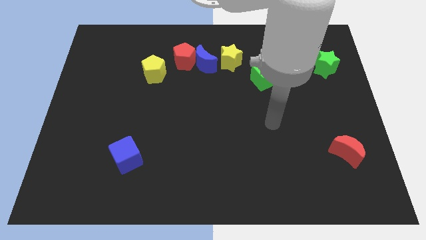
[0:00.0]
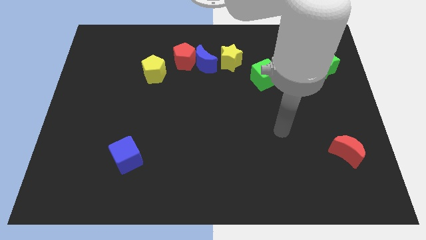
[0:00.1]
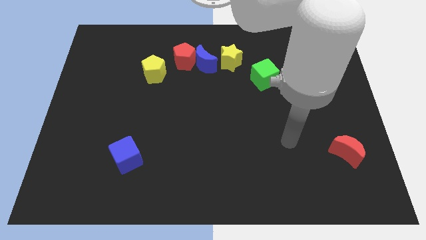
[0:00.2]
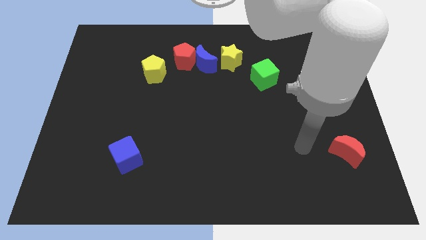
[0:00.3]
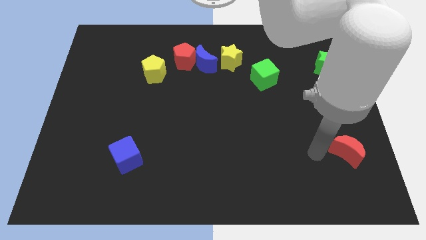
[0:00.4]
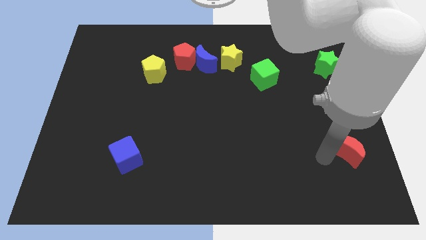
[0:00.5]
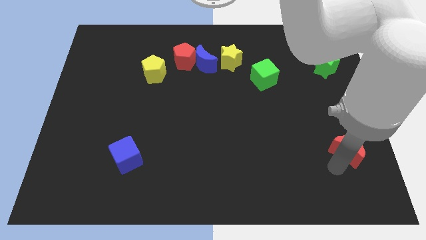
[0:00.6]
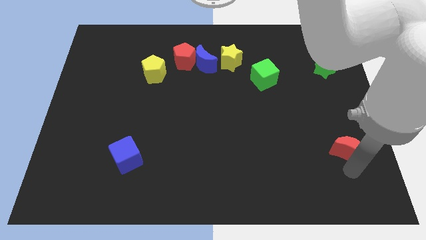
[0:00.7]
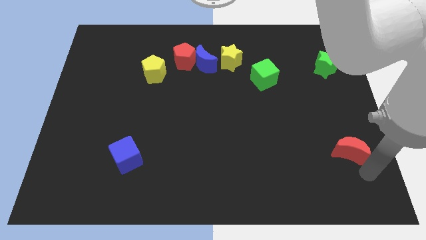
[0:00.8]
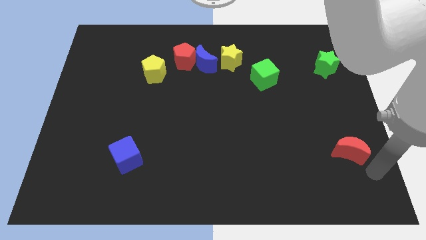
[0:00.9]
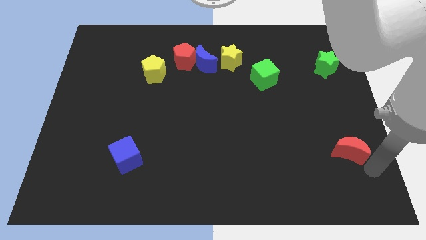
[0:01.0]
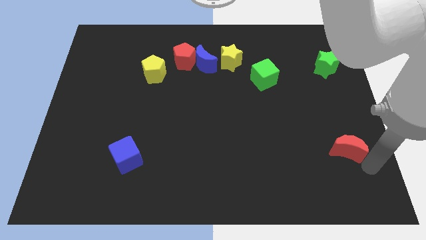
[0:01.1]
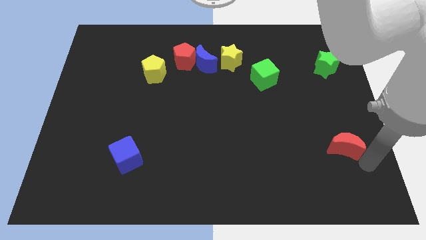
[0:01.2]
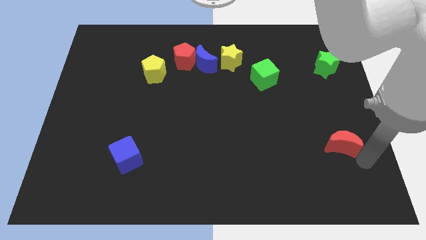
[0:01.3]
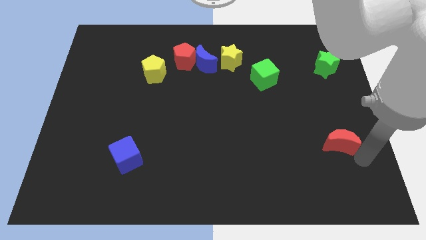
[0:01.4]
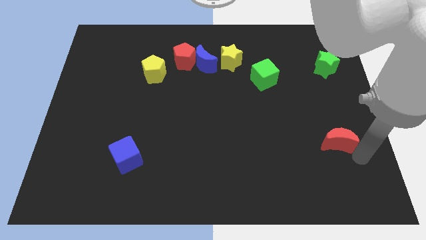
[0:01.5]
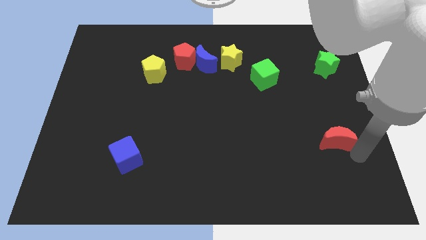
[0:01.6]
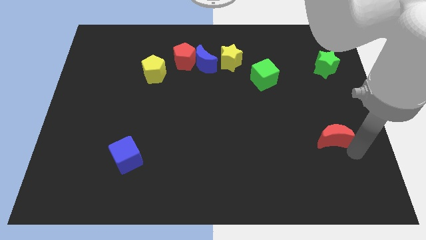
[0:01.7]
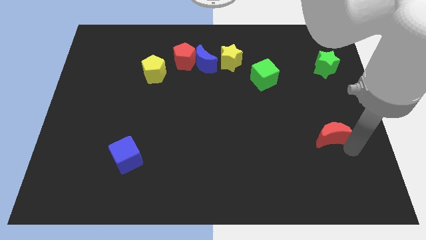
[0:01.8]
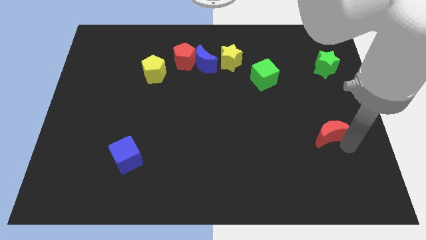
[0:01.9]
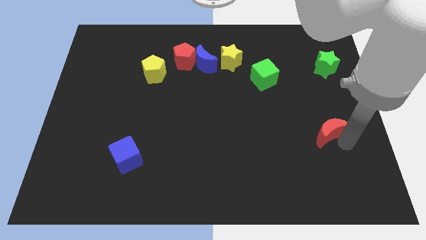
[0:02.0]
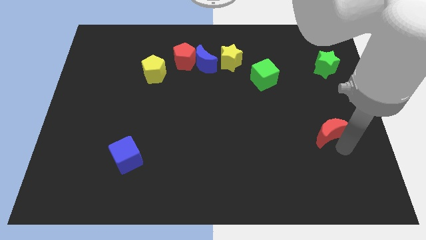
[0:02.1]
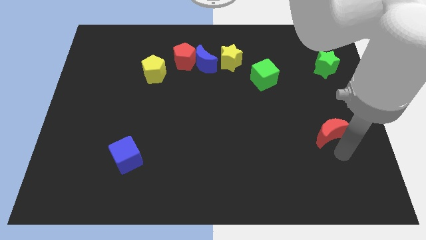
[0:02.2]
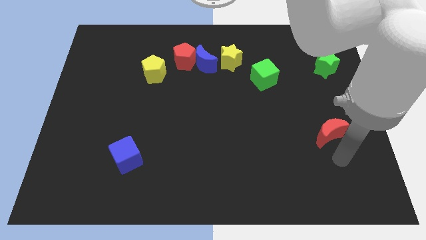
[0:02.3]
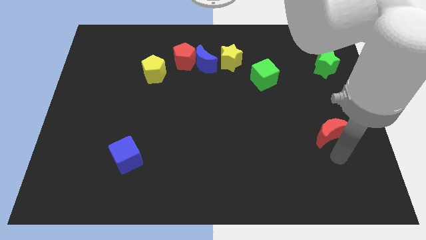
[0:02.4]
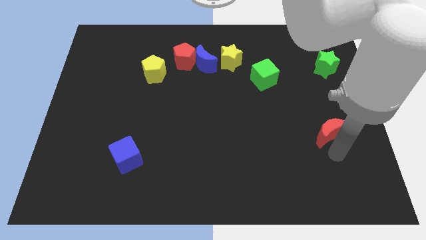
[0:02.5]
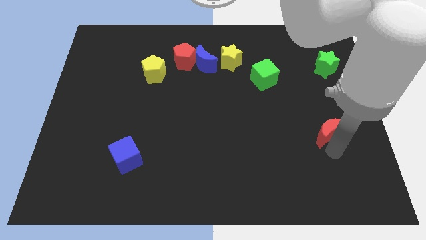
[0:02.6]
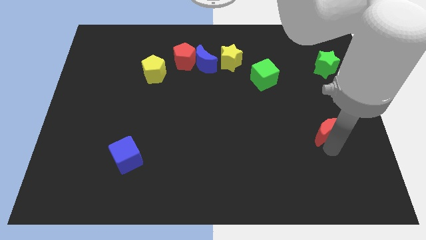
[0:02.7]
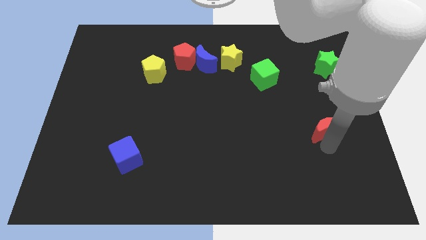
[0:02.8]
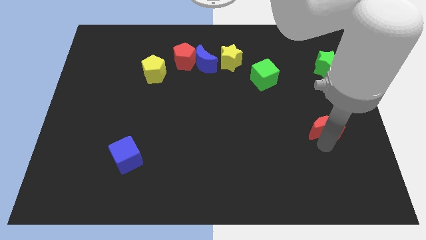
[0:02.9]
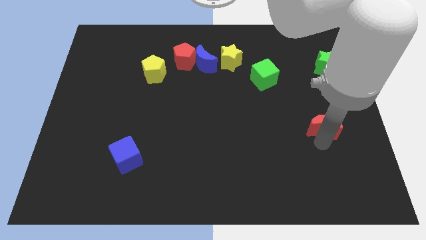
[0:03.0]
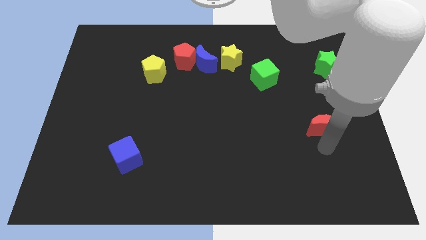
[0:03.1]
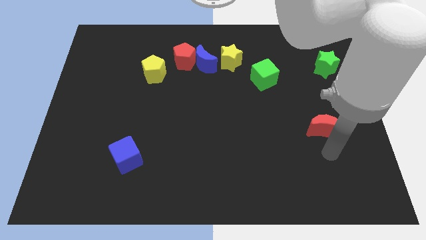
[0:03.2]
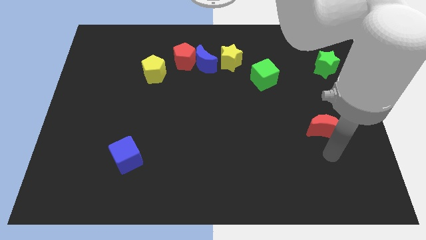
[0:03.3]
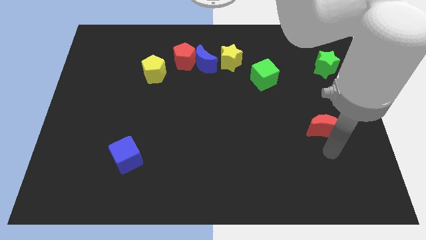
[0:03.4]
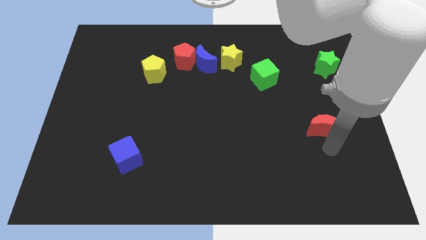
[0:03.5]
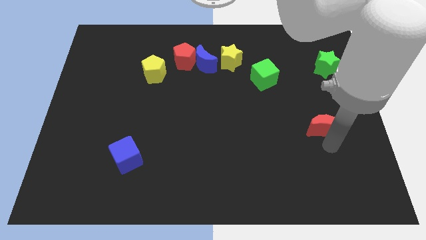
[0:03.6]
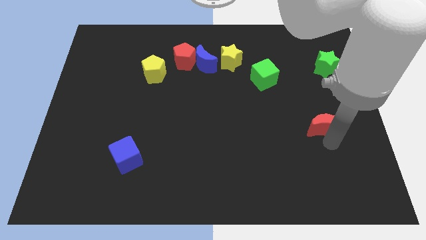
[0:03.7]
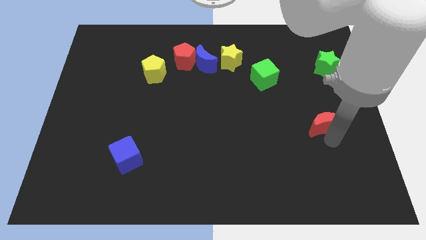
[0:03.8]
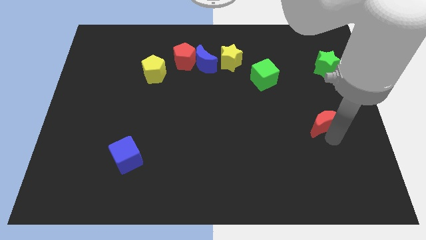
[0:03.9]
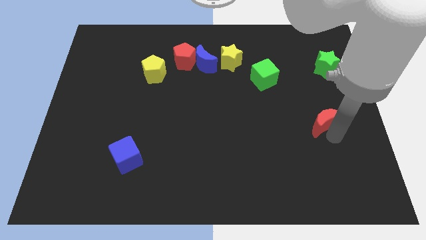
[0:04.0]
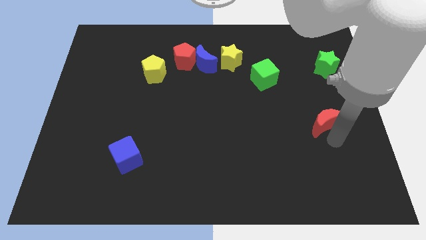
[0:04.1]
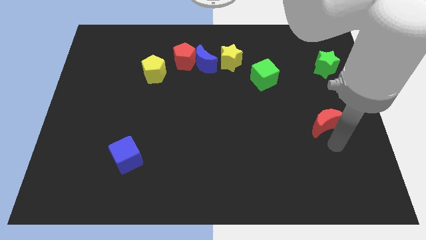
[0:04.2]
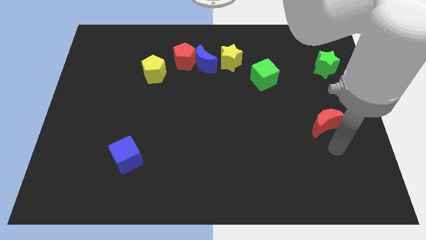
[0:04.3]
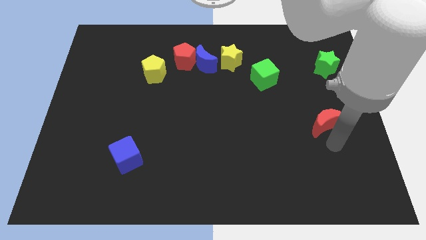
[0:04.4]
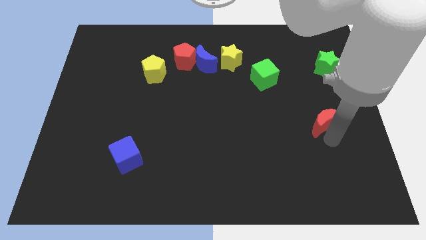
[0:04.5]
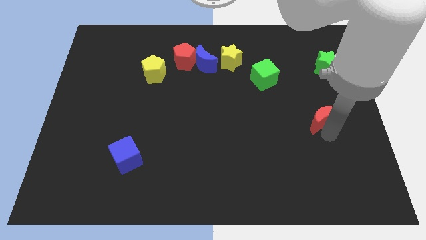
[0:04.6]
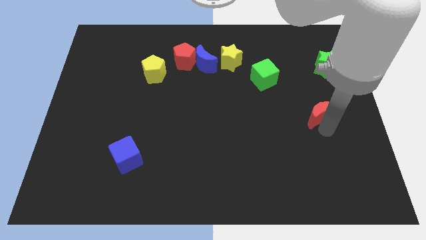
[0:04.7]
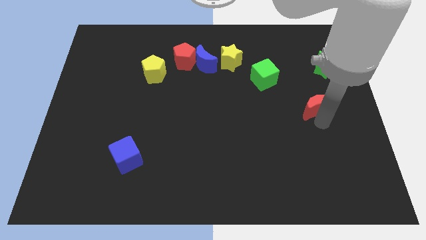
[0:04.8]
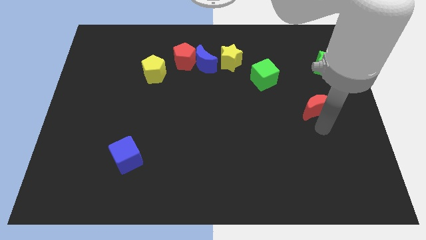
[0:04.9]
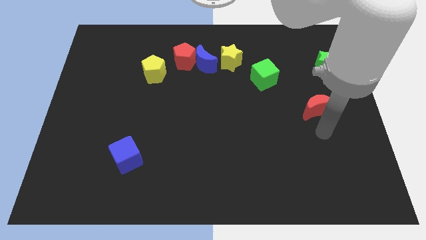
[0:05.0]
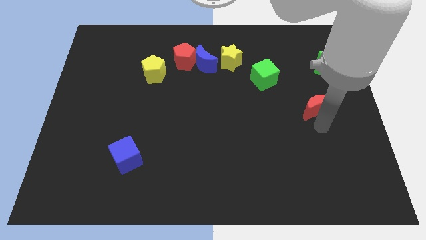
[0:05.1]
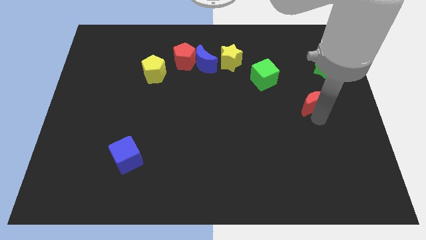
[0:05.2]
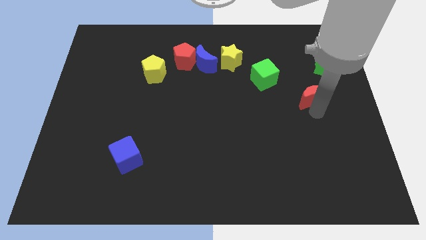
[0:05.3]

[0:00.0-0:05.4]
slide the red moon to the bottom left of the green star

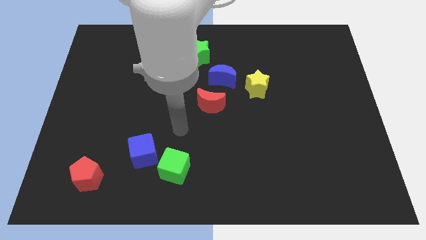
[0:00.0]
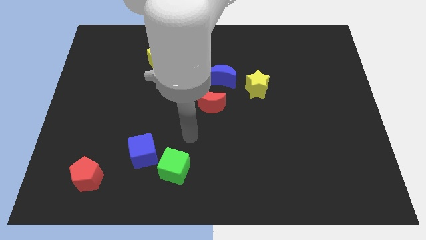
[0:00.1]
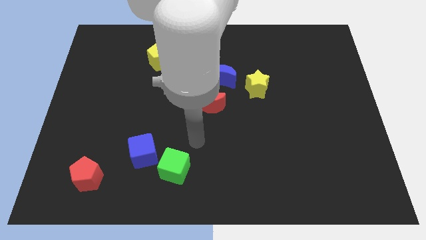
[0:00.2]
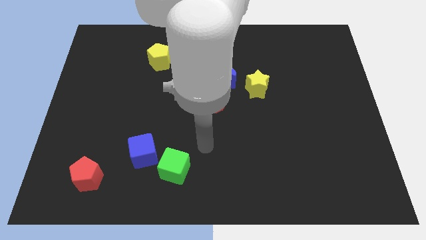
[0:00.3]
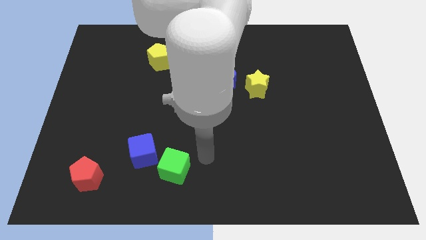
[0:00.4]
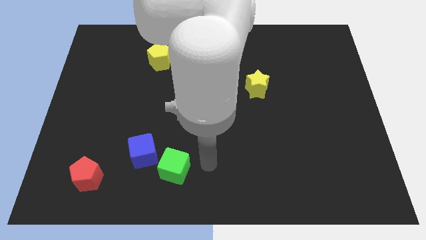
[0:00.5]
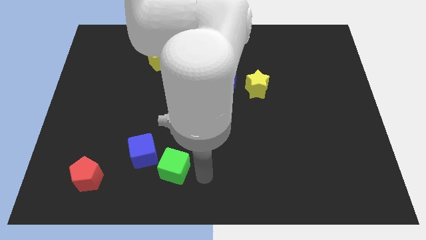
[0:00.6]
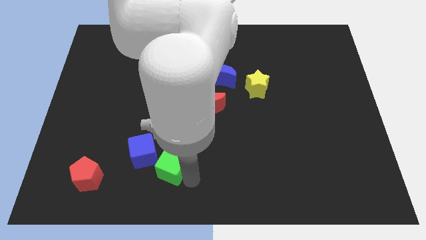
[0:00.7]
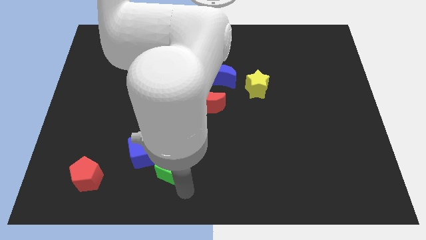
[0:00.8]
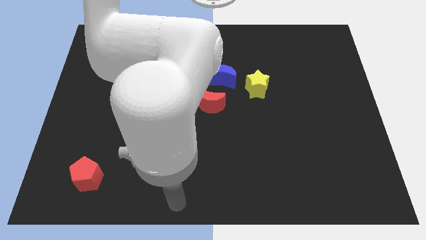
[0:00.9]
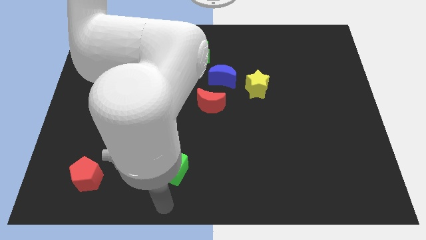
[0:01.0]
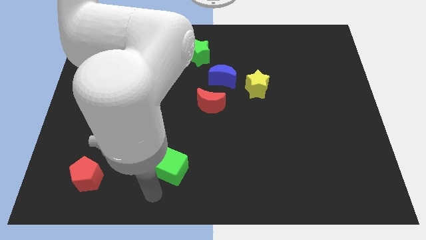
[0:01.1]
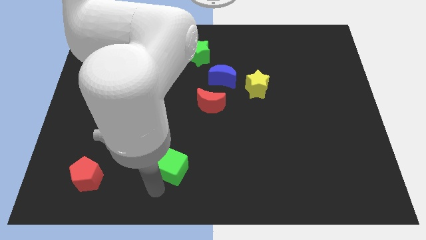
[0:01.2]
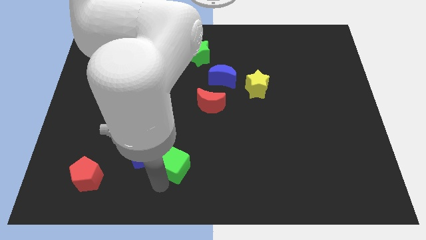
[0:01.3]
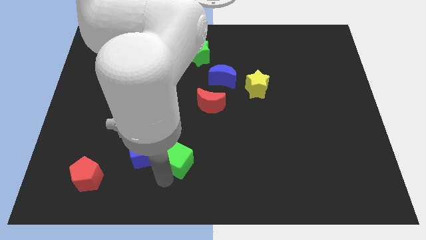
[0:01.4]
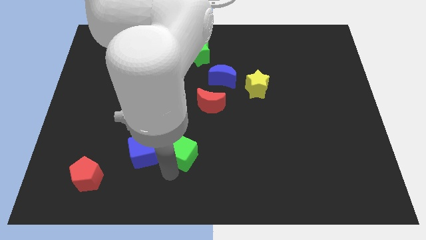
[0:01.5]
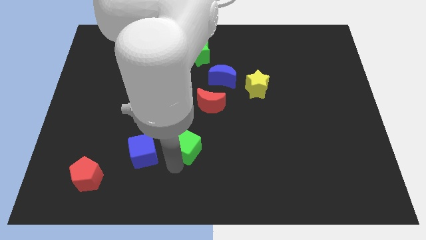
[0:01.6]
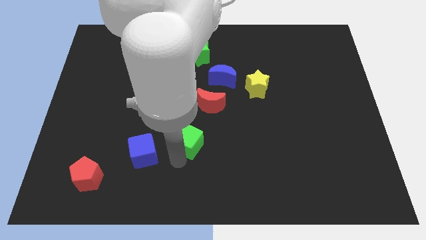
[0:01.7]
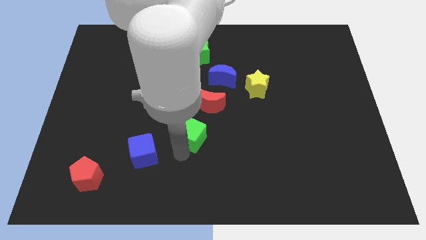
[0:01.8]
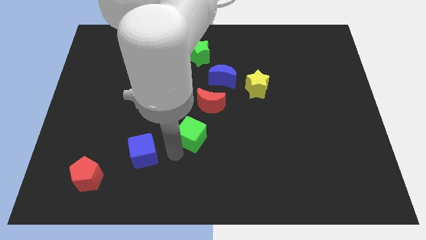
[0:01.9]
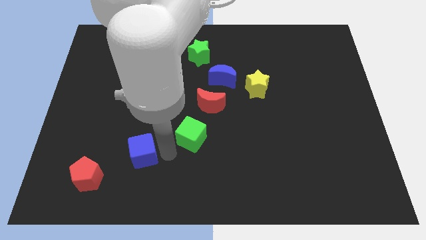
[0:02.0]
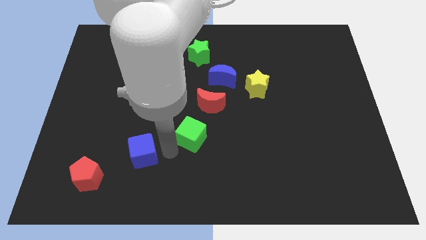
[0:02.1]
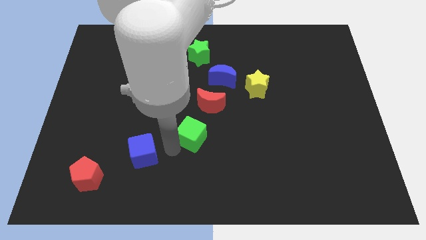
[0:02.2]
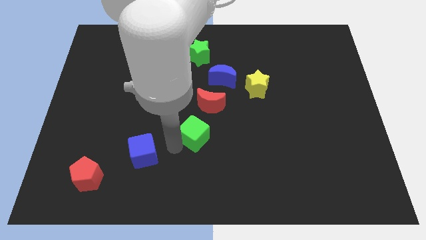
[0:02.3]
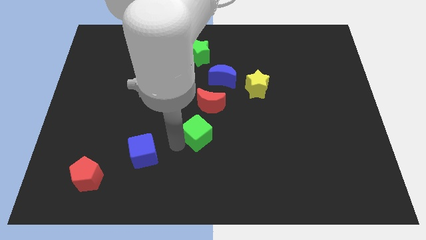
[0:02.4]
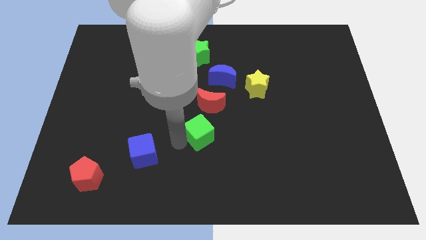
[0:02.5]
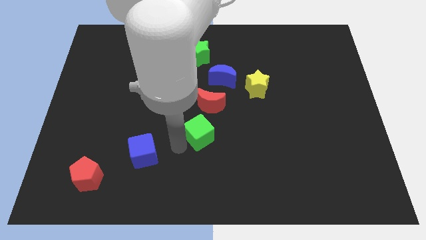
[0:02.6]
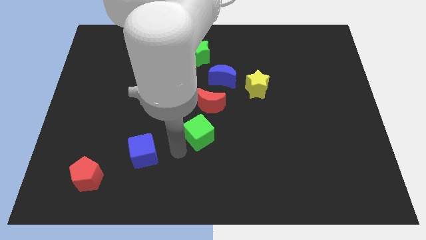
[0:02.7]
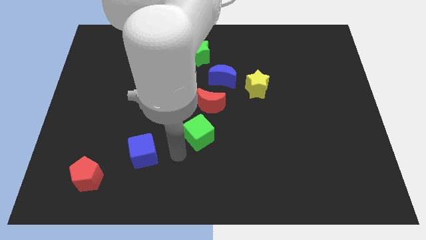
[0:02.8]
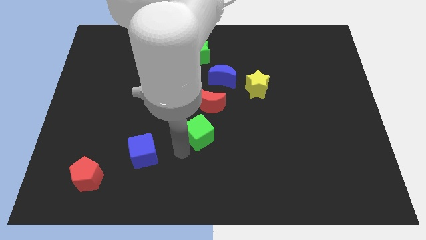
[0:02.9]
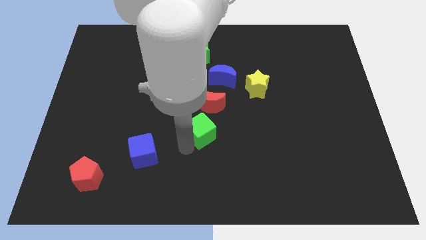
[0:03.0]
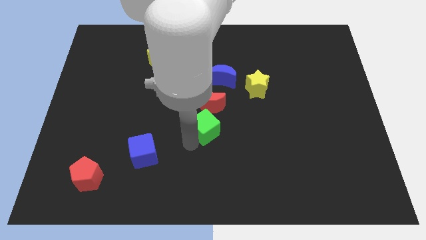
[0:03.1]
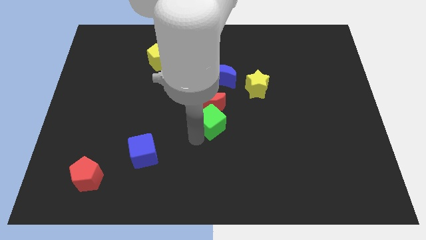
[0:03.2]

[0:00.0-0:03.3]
push the green cube to the bottom of the blue moon
